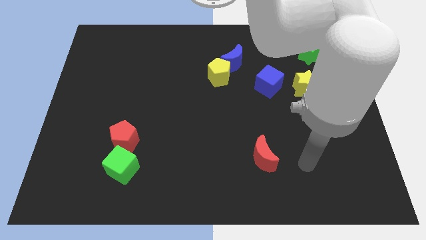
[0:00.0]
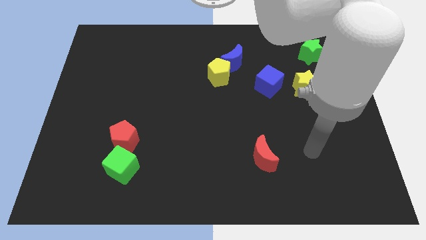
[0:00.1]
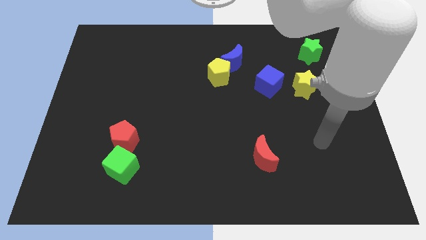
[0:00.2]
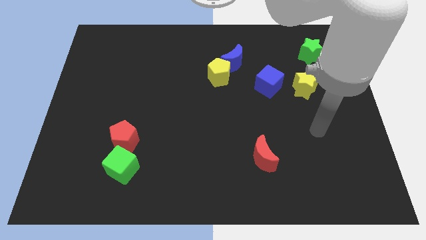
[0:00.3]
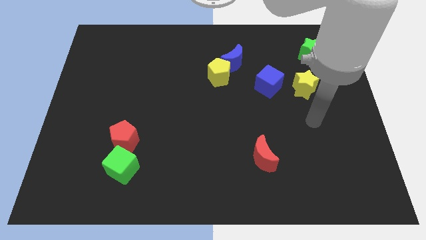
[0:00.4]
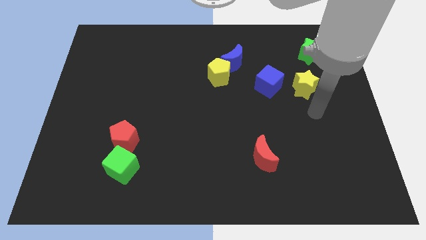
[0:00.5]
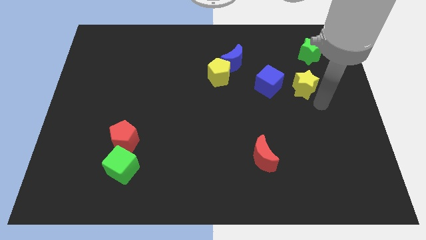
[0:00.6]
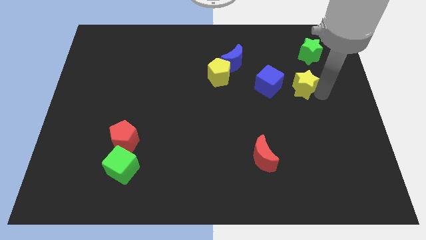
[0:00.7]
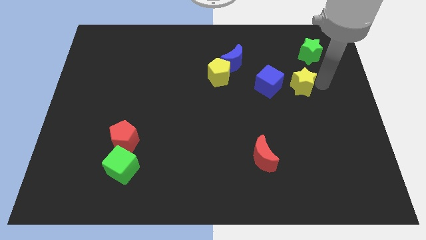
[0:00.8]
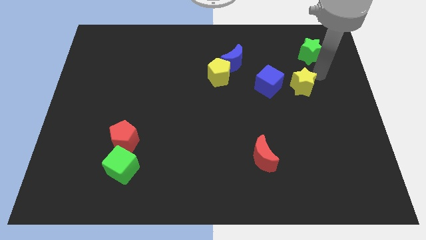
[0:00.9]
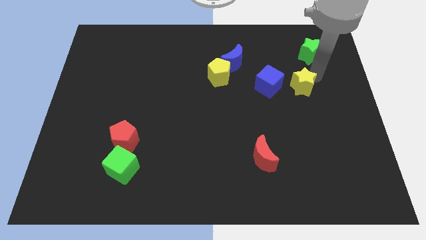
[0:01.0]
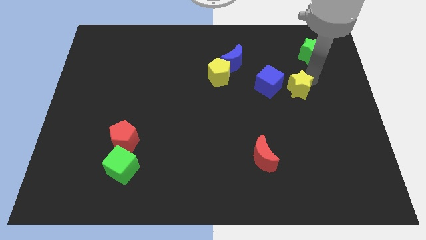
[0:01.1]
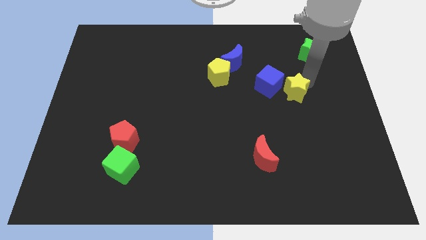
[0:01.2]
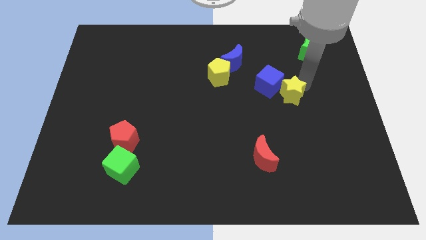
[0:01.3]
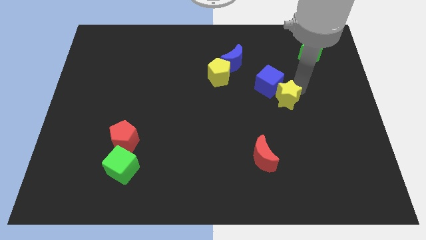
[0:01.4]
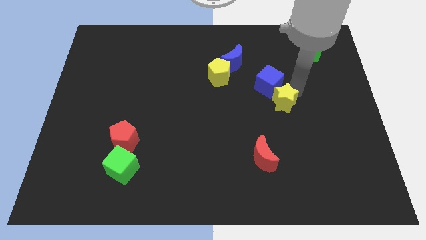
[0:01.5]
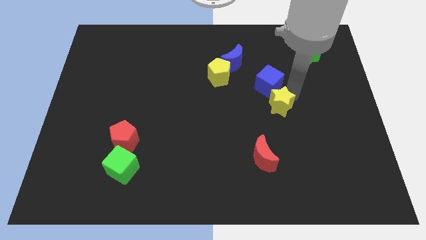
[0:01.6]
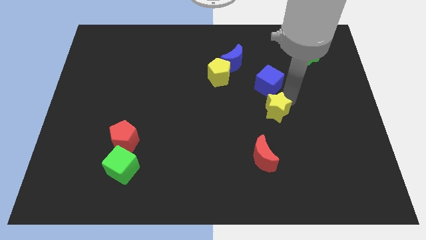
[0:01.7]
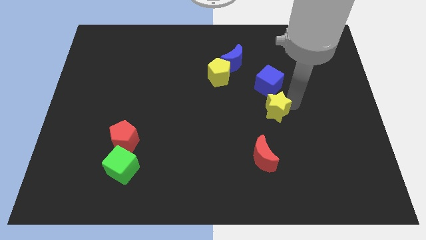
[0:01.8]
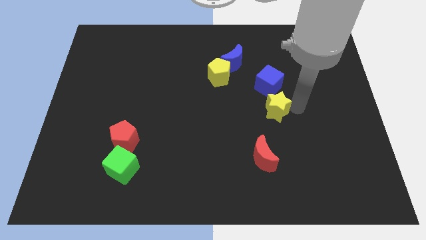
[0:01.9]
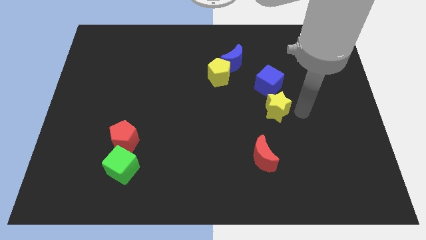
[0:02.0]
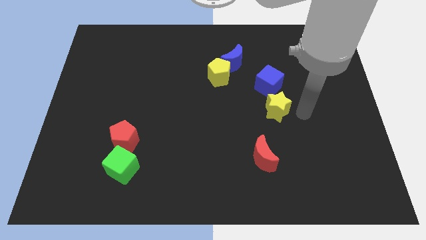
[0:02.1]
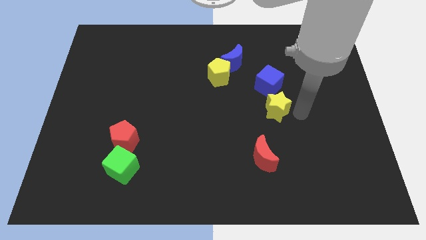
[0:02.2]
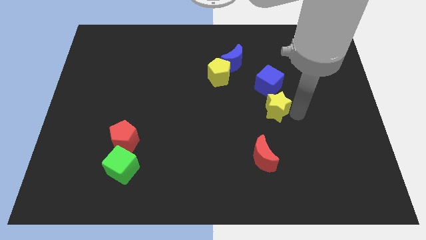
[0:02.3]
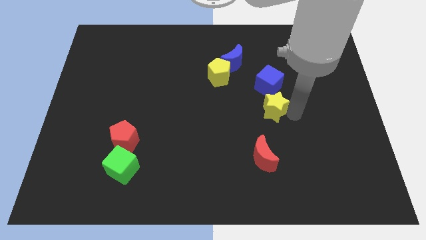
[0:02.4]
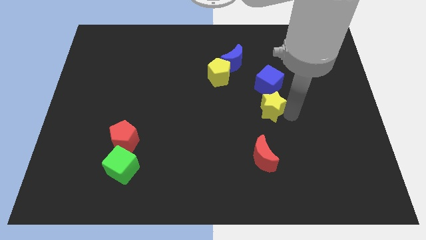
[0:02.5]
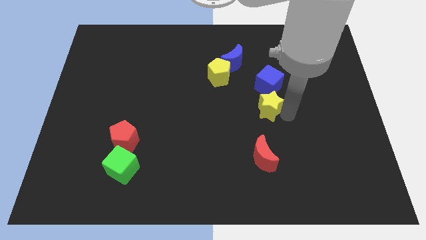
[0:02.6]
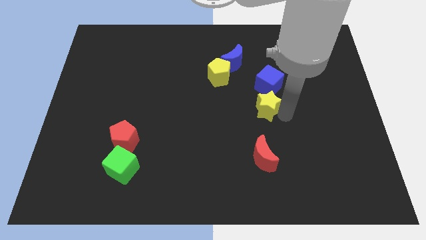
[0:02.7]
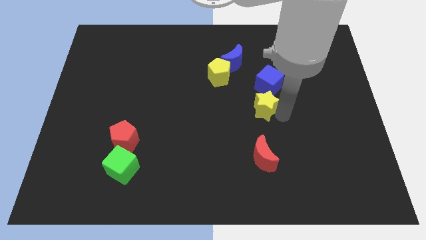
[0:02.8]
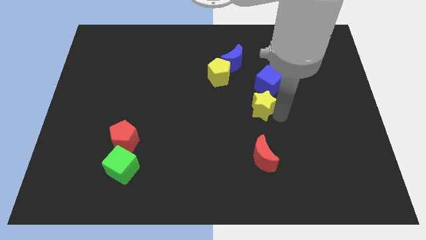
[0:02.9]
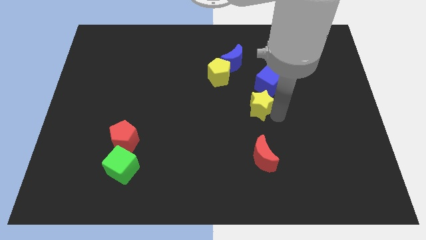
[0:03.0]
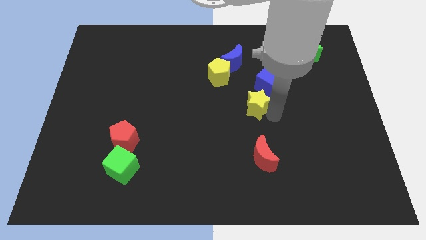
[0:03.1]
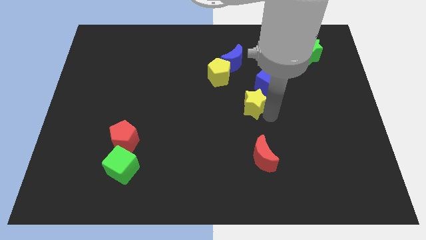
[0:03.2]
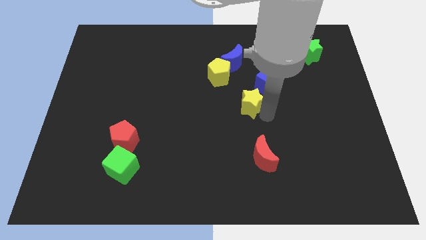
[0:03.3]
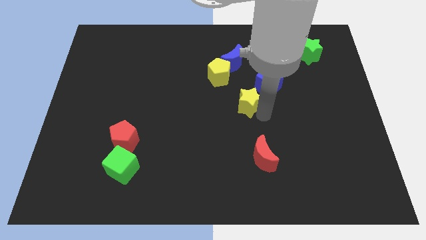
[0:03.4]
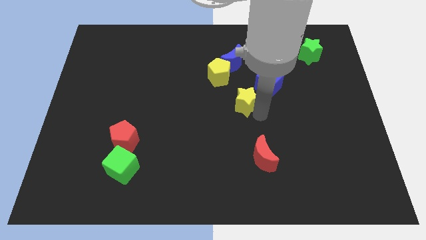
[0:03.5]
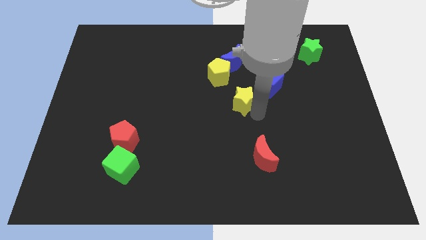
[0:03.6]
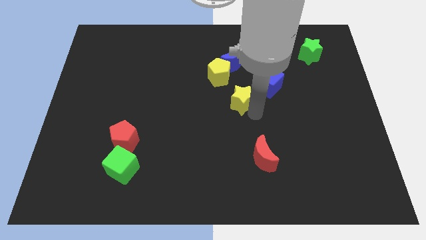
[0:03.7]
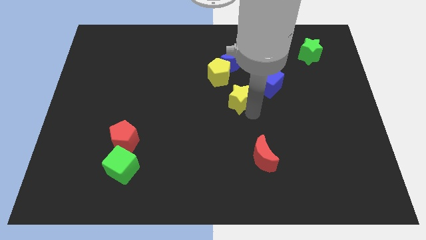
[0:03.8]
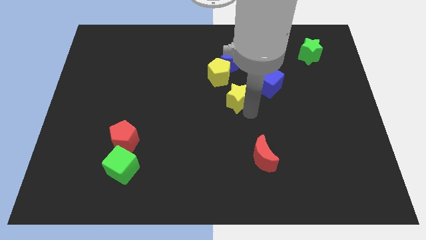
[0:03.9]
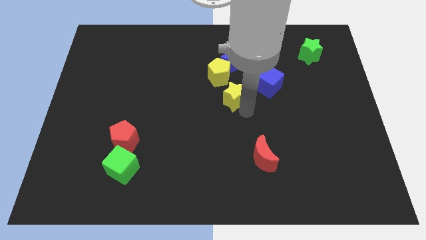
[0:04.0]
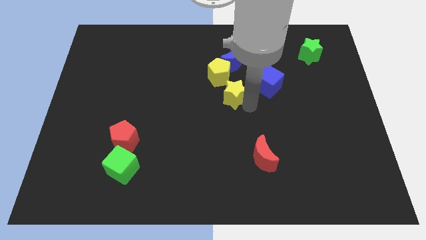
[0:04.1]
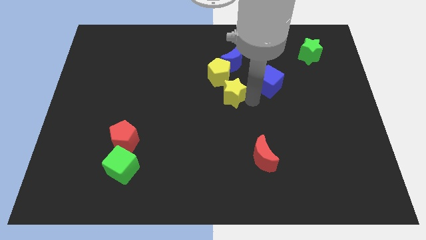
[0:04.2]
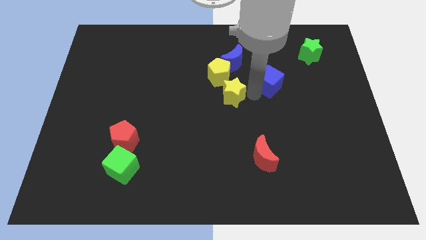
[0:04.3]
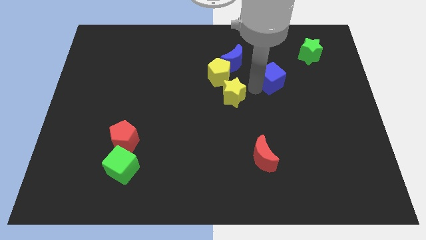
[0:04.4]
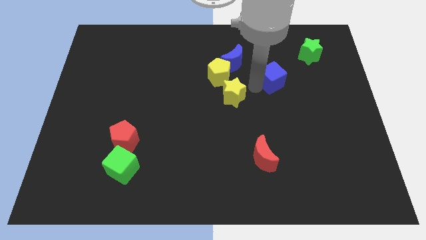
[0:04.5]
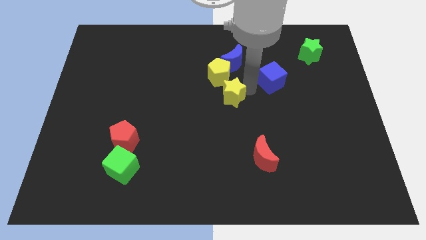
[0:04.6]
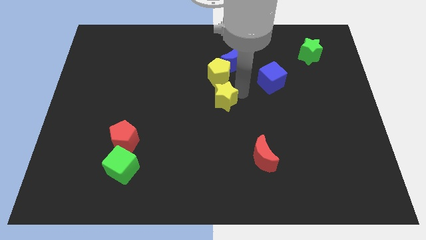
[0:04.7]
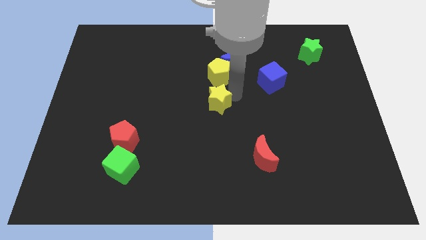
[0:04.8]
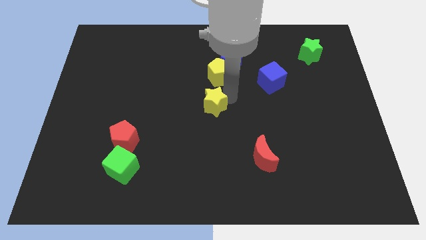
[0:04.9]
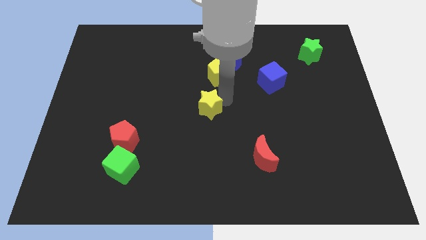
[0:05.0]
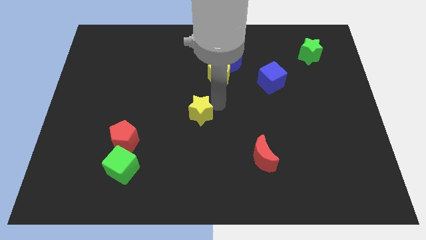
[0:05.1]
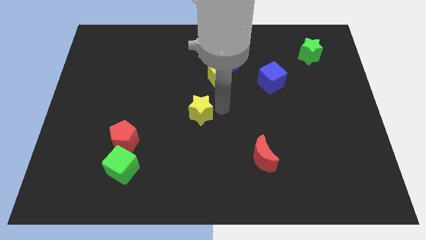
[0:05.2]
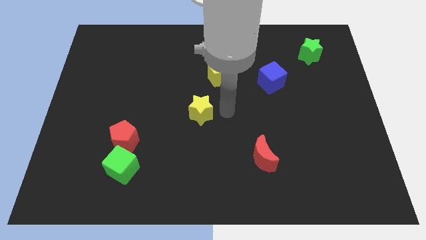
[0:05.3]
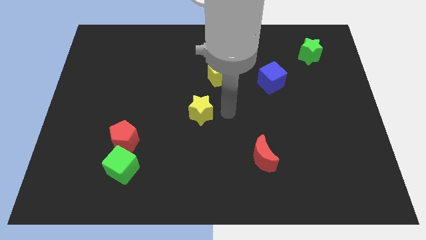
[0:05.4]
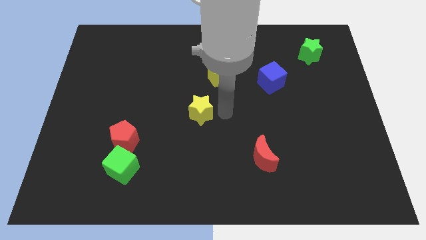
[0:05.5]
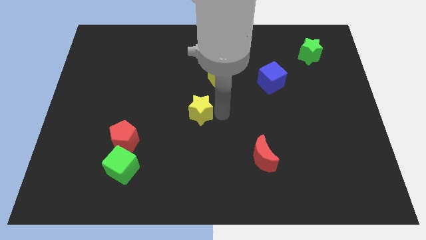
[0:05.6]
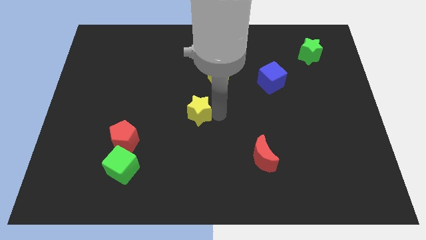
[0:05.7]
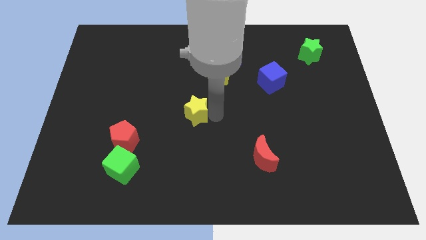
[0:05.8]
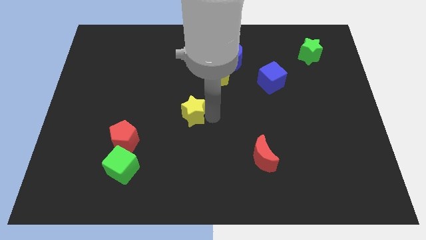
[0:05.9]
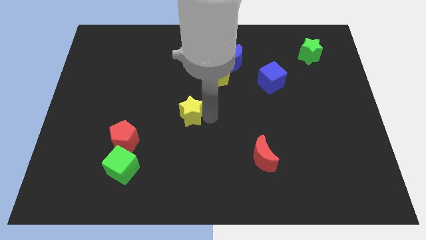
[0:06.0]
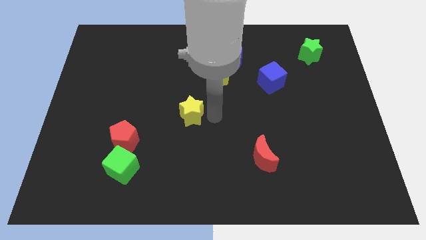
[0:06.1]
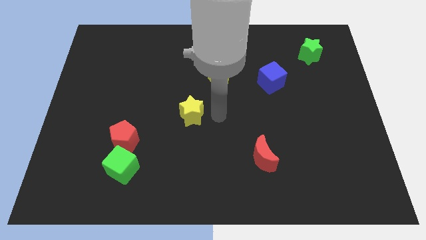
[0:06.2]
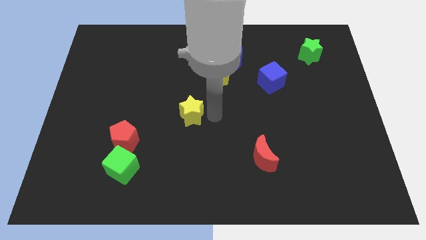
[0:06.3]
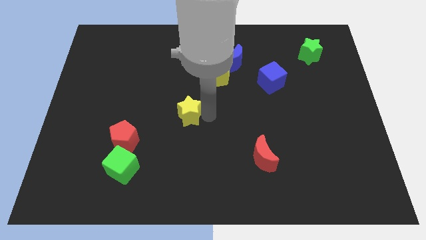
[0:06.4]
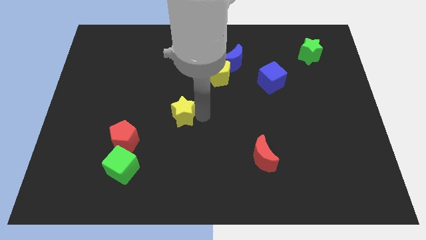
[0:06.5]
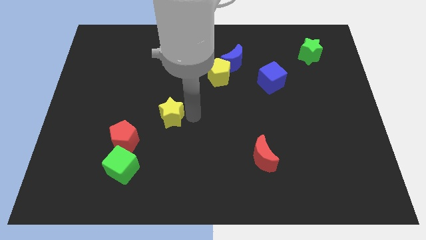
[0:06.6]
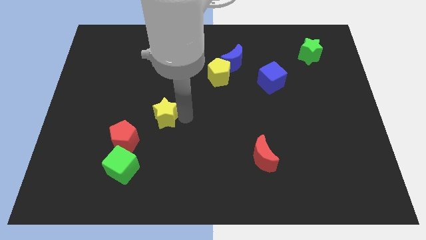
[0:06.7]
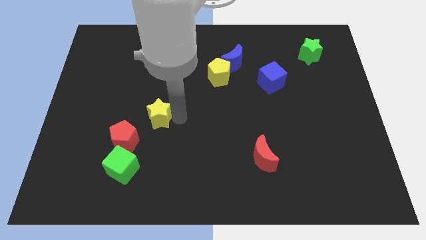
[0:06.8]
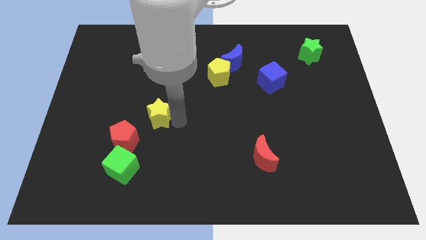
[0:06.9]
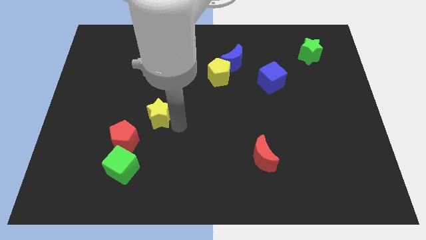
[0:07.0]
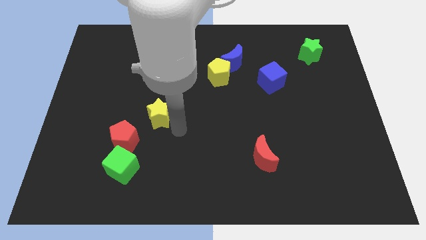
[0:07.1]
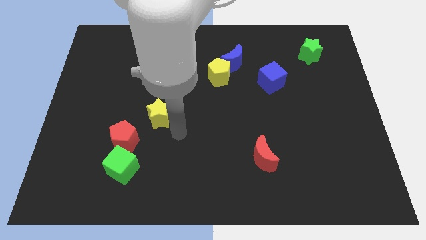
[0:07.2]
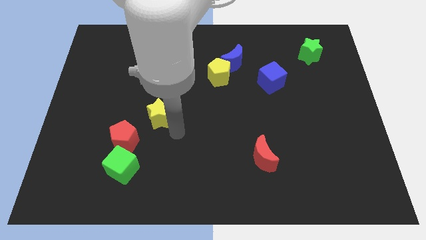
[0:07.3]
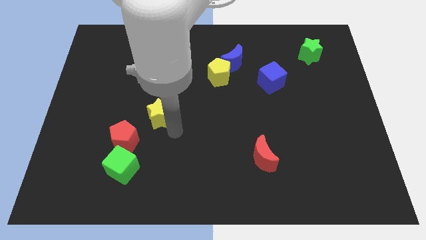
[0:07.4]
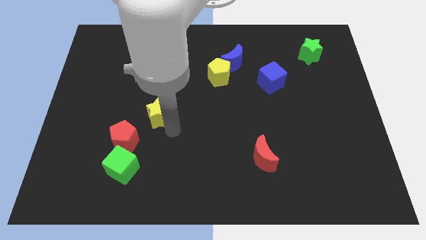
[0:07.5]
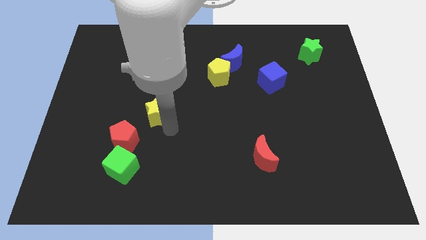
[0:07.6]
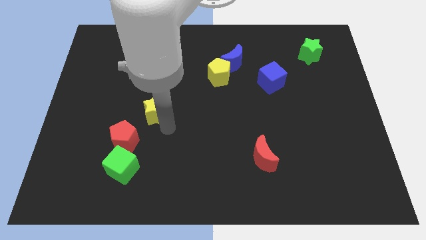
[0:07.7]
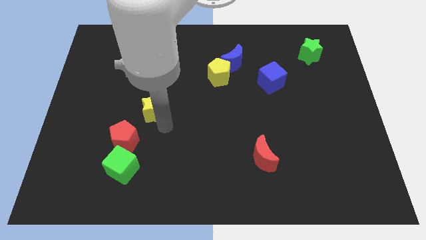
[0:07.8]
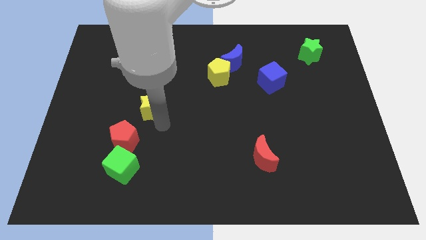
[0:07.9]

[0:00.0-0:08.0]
push the yellow star to the top of the red pentagon
